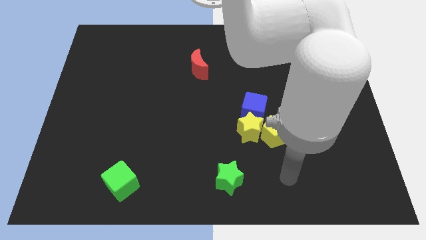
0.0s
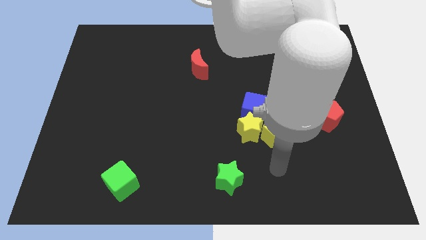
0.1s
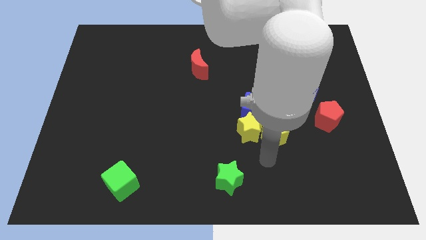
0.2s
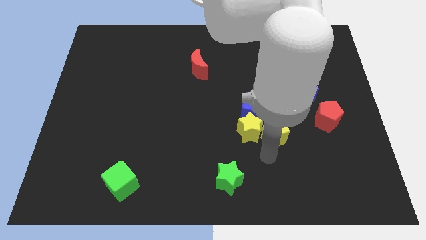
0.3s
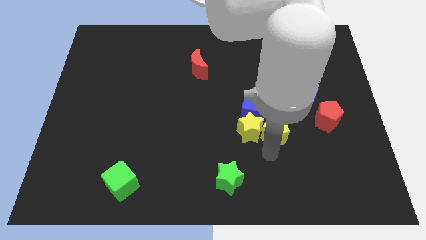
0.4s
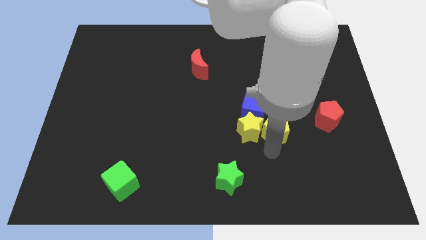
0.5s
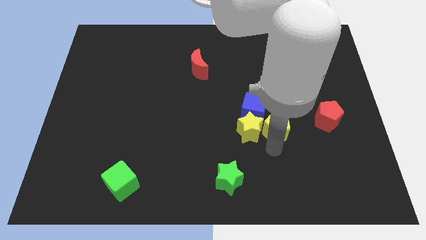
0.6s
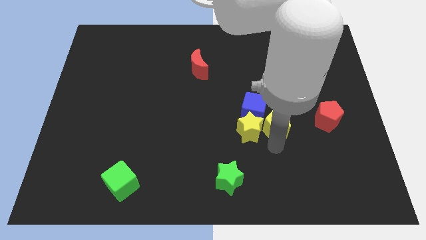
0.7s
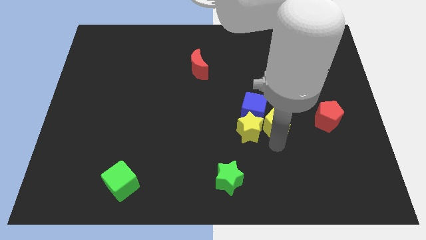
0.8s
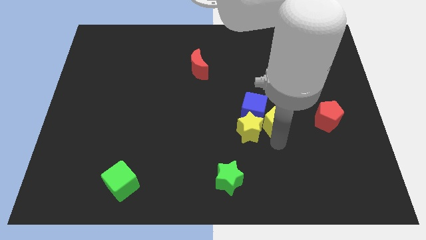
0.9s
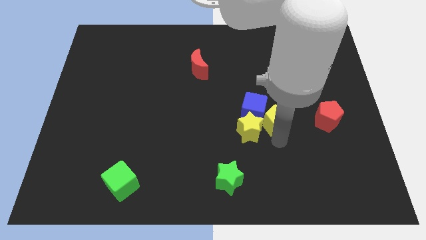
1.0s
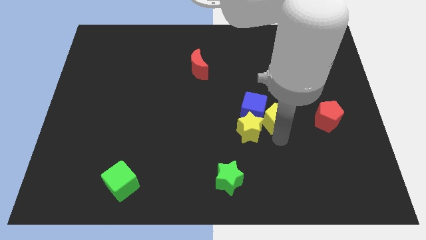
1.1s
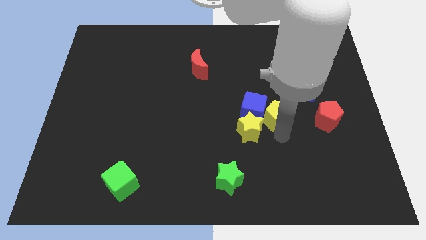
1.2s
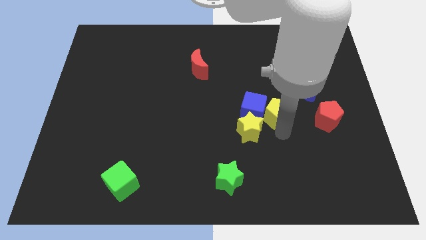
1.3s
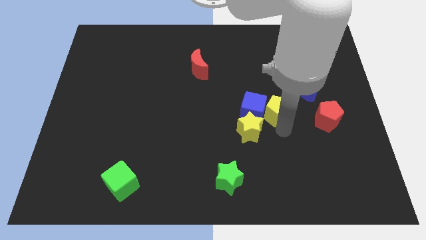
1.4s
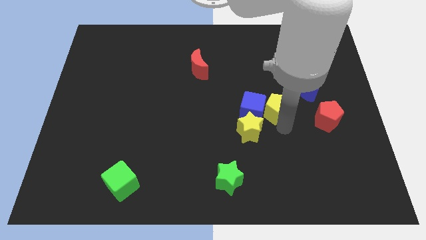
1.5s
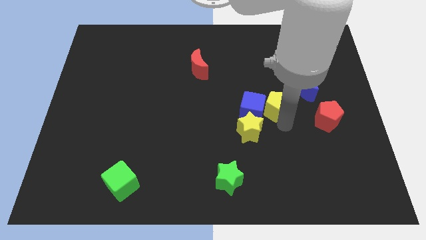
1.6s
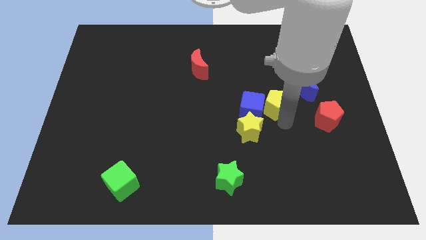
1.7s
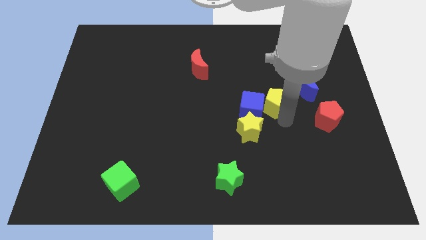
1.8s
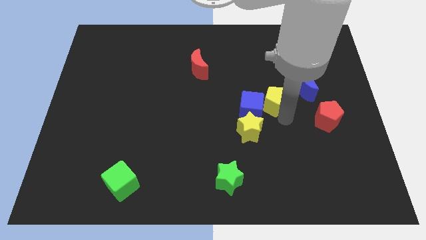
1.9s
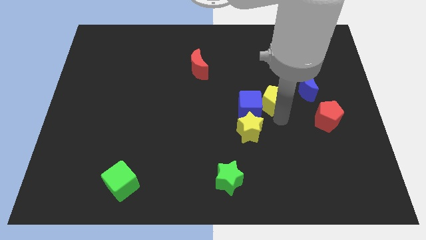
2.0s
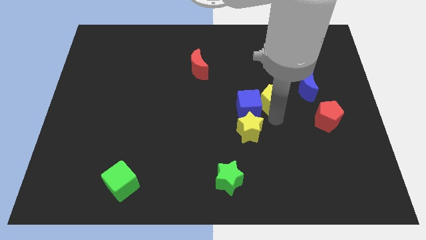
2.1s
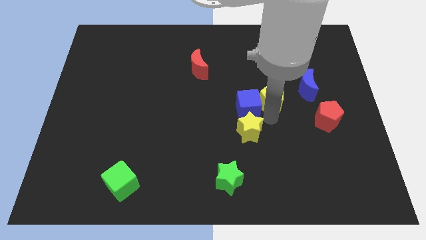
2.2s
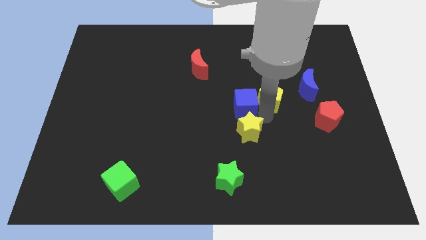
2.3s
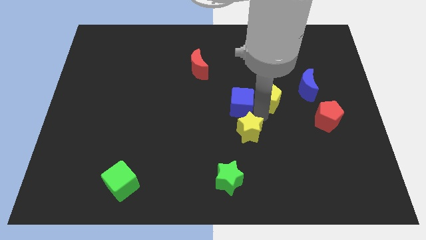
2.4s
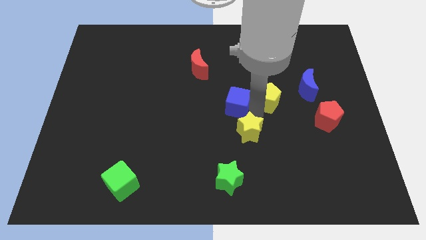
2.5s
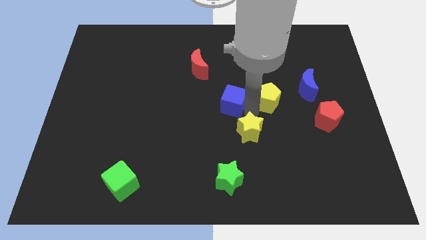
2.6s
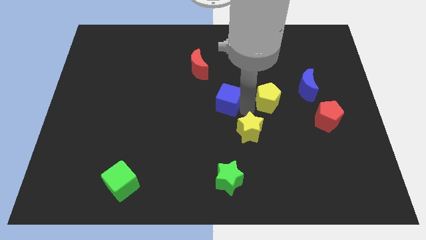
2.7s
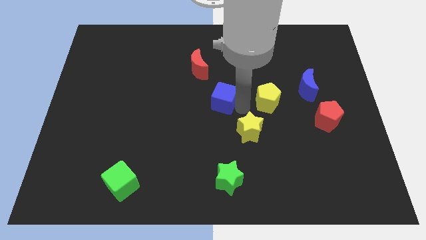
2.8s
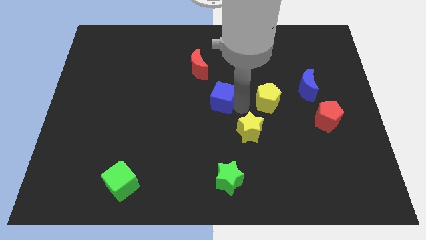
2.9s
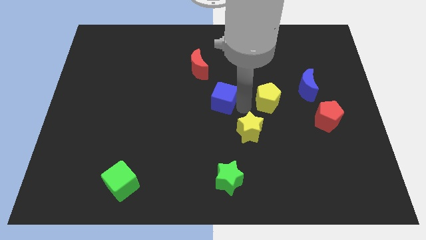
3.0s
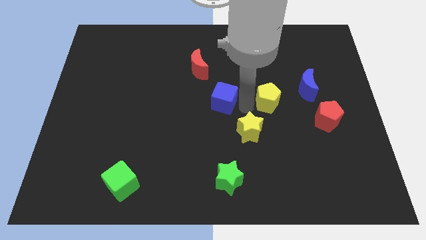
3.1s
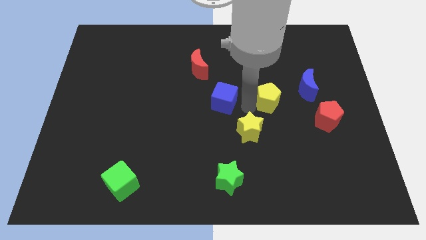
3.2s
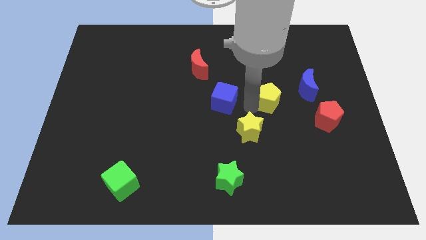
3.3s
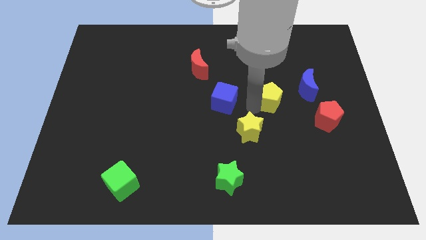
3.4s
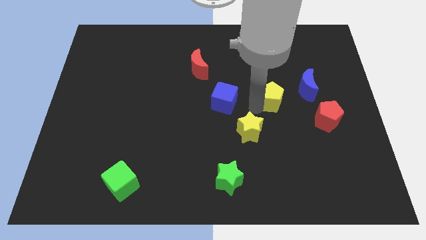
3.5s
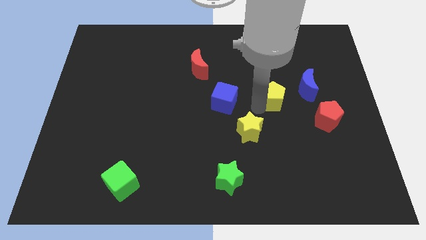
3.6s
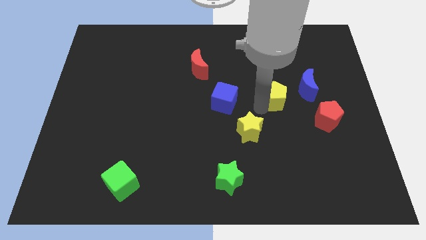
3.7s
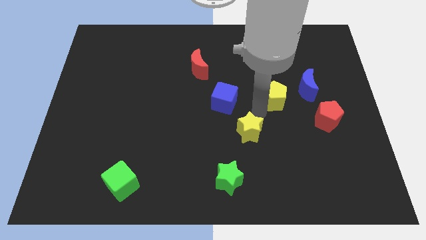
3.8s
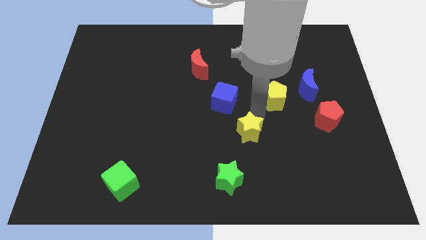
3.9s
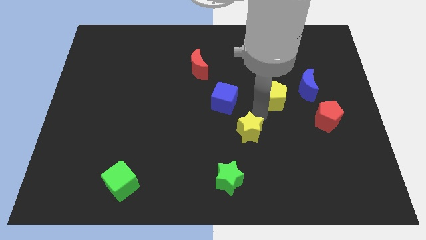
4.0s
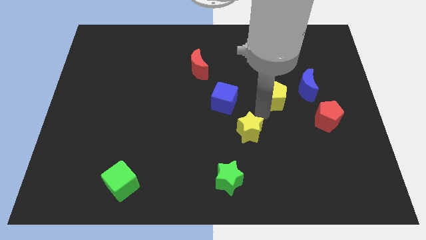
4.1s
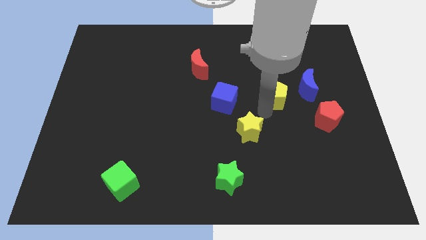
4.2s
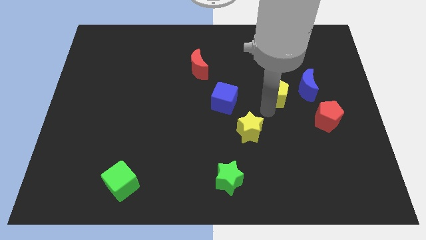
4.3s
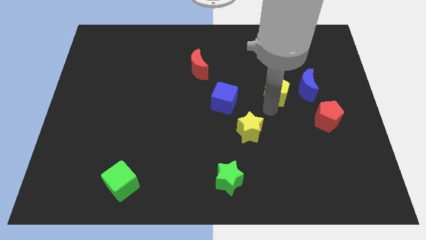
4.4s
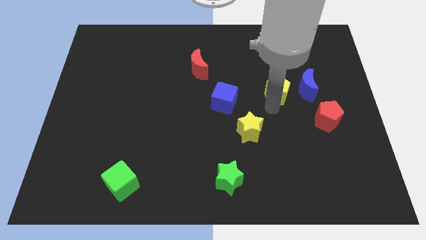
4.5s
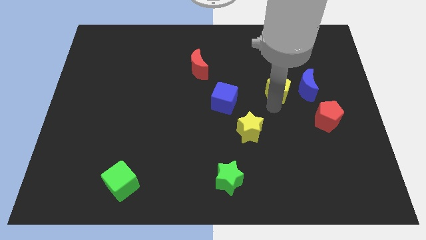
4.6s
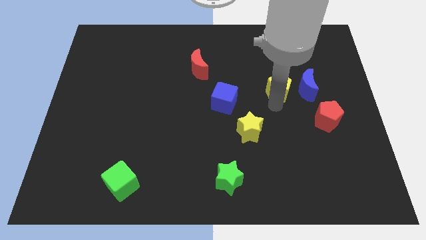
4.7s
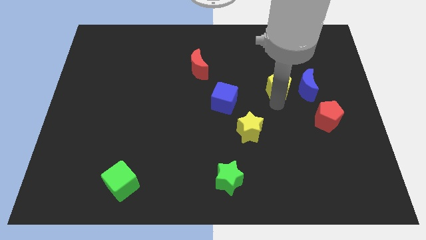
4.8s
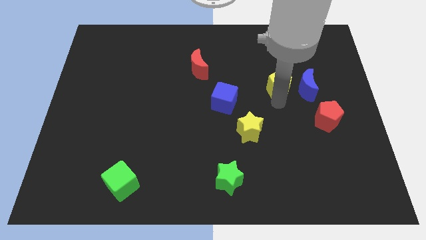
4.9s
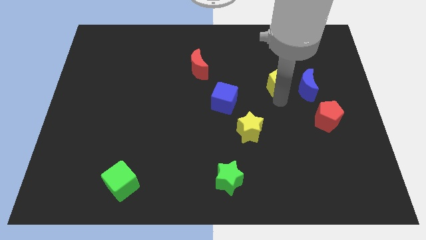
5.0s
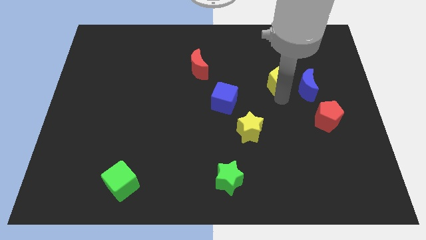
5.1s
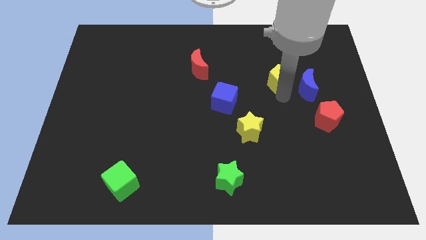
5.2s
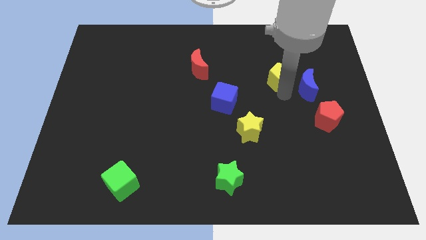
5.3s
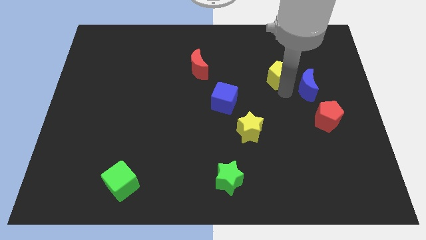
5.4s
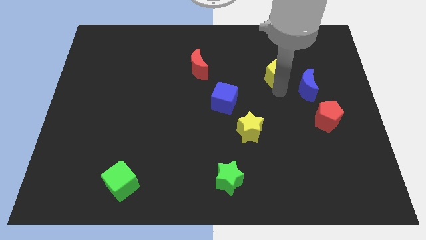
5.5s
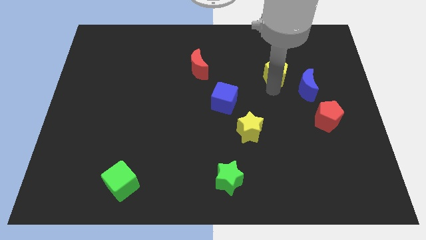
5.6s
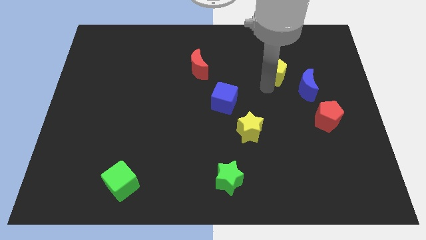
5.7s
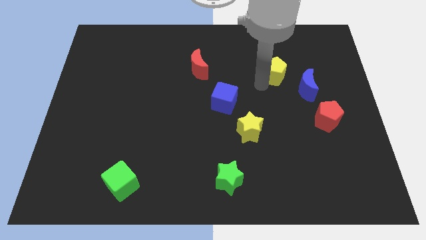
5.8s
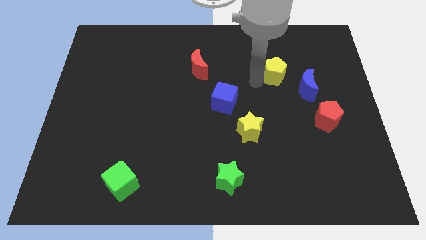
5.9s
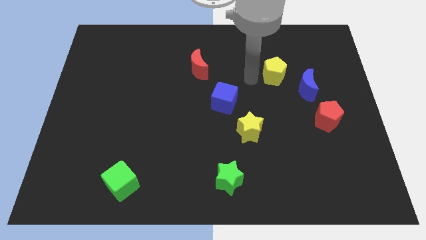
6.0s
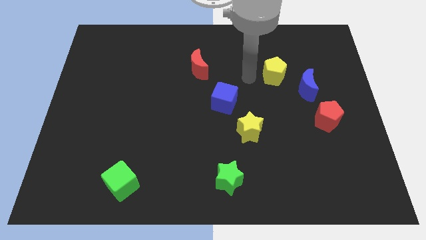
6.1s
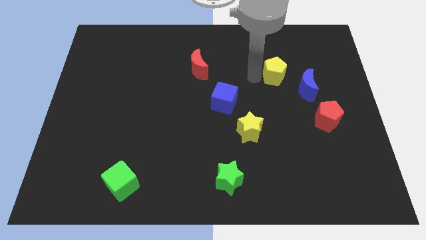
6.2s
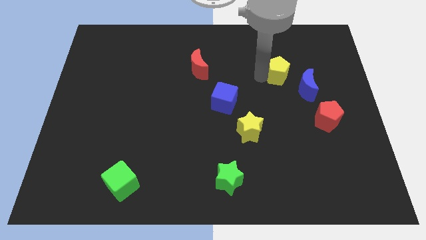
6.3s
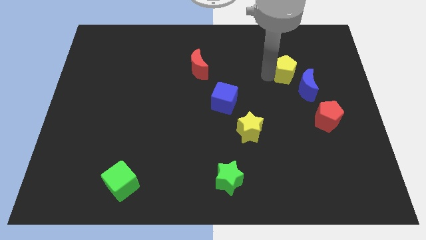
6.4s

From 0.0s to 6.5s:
push the yellow pentagon to the top of the blue moon

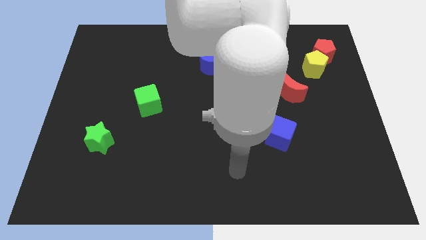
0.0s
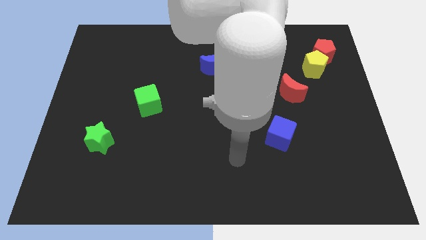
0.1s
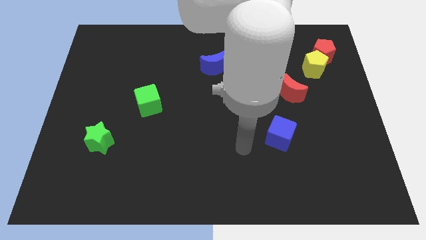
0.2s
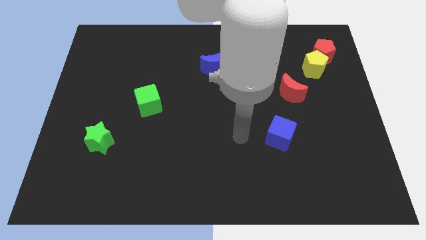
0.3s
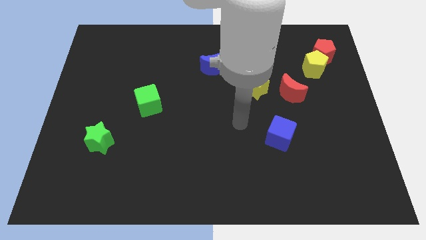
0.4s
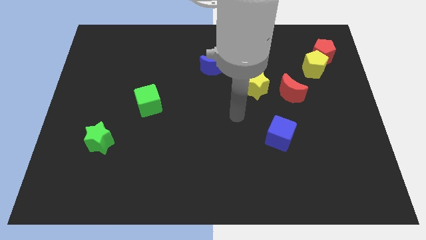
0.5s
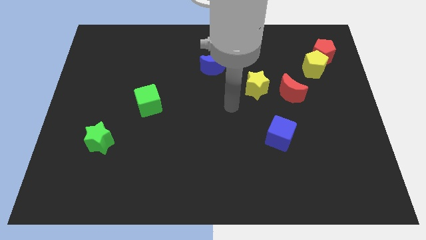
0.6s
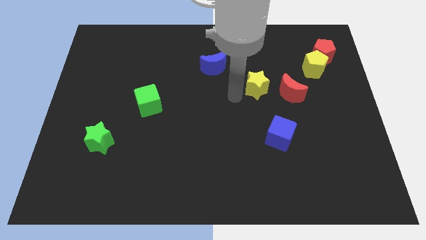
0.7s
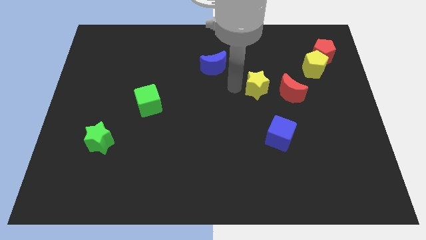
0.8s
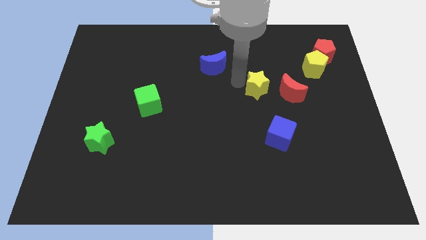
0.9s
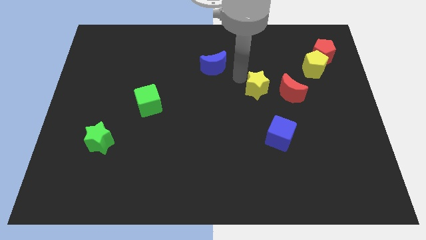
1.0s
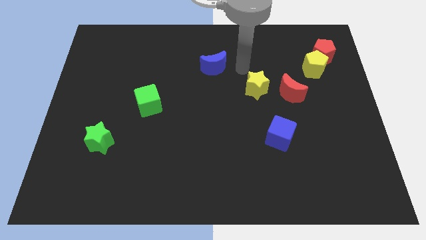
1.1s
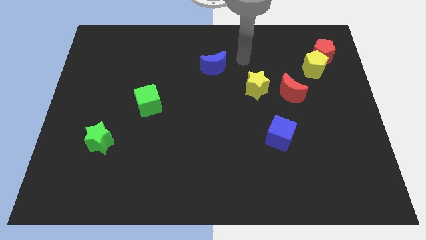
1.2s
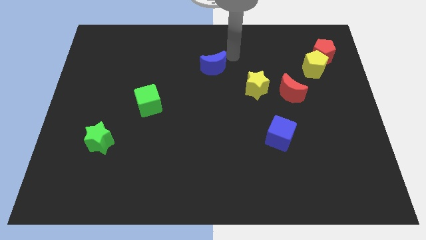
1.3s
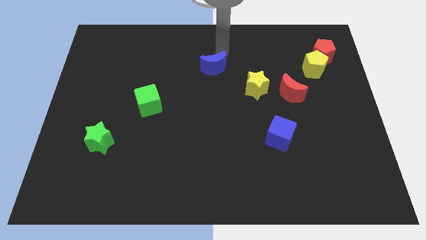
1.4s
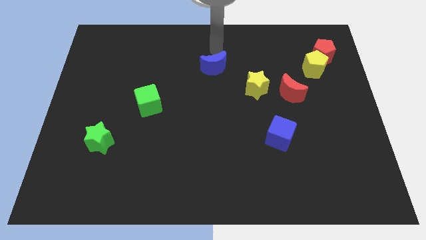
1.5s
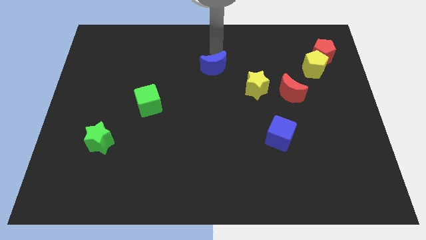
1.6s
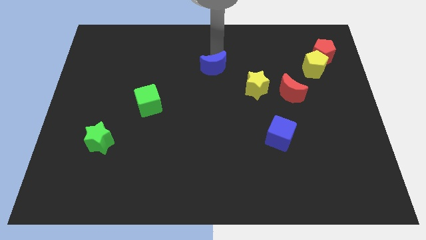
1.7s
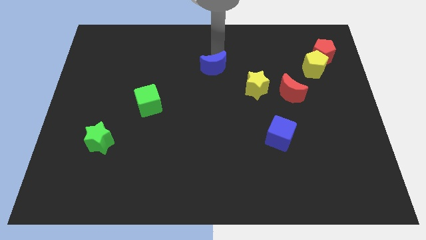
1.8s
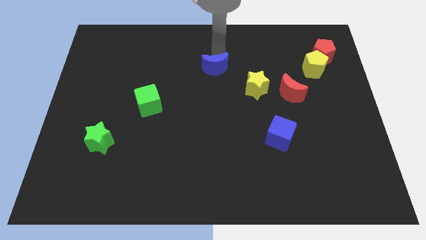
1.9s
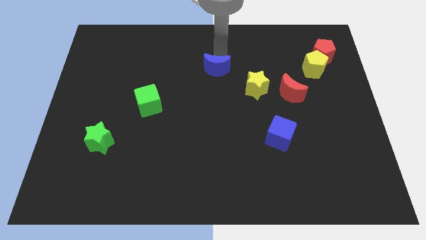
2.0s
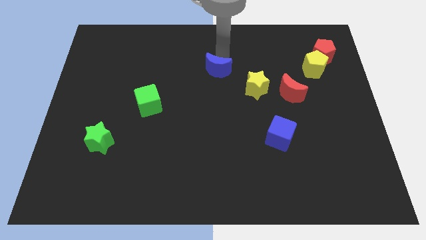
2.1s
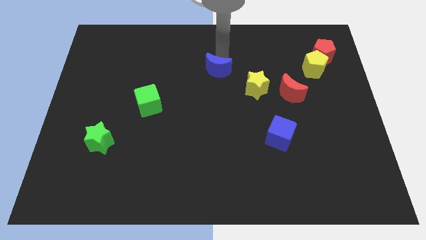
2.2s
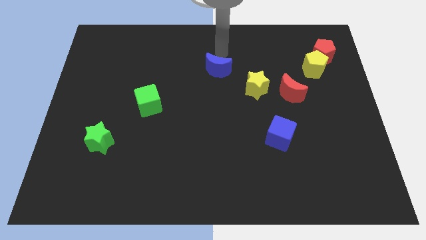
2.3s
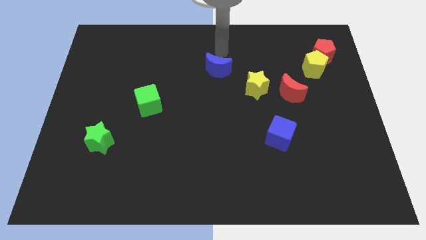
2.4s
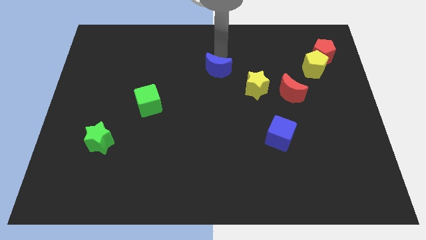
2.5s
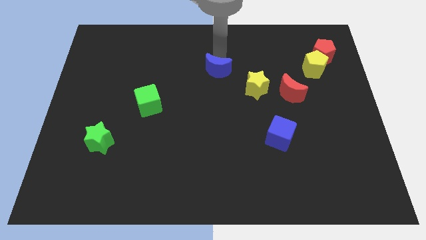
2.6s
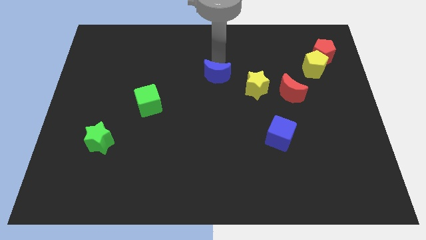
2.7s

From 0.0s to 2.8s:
move the blue moon just left of the yellow star
